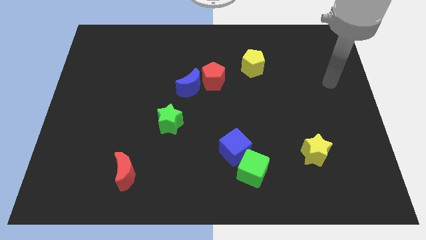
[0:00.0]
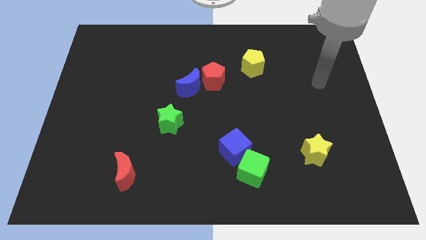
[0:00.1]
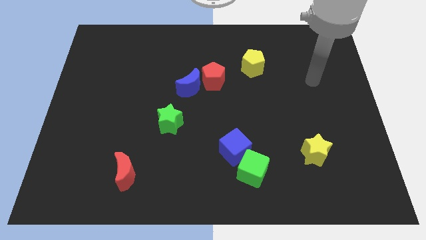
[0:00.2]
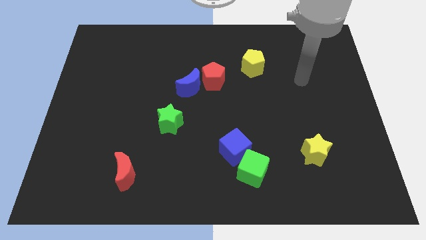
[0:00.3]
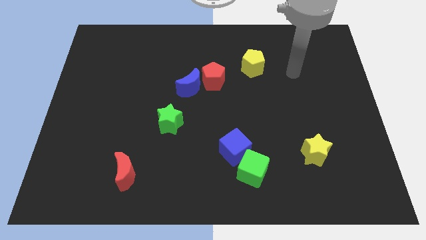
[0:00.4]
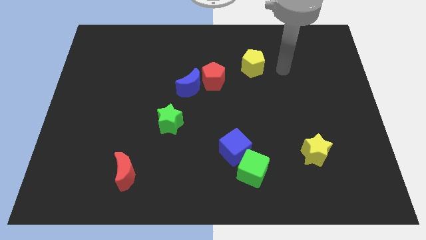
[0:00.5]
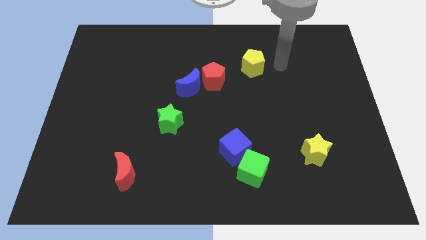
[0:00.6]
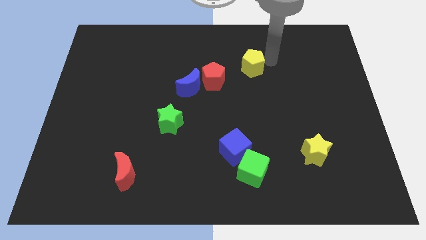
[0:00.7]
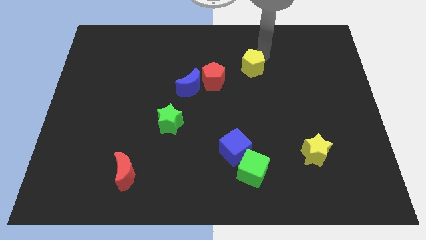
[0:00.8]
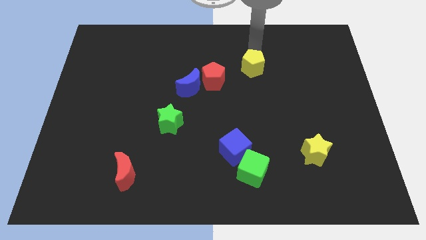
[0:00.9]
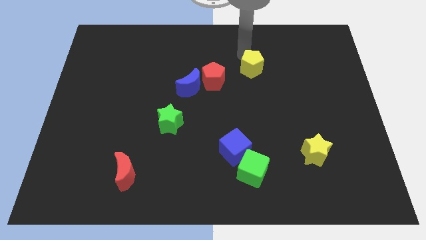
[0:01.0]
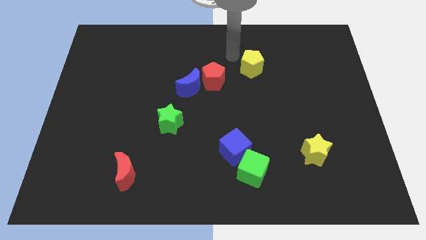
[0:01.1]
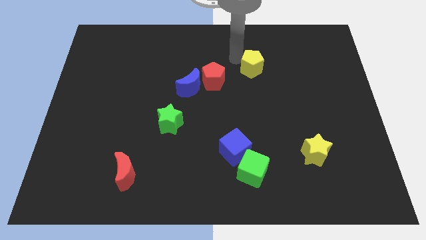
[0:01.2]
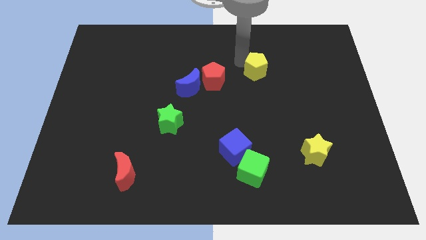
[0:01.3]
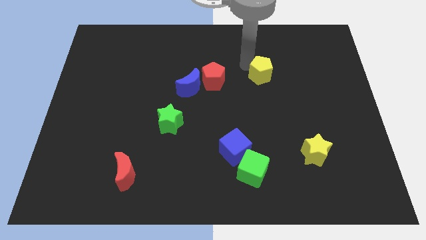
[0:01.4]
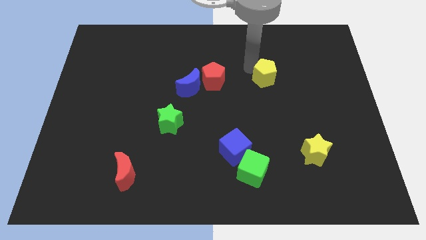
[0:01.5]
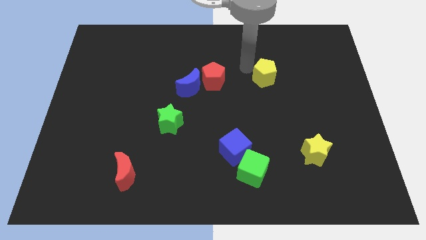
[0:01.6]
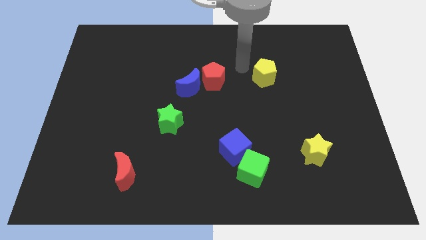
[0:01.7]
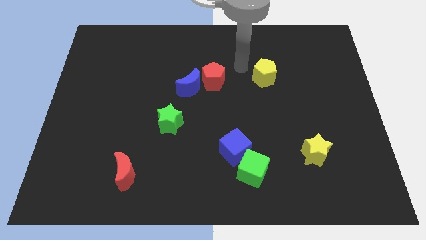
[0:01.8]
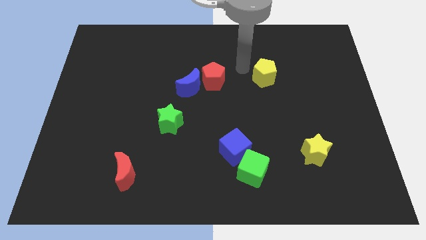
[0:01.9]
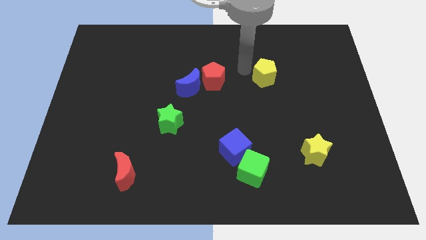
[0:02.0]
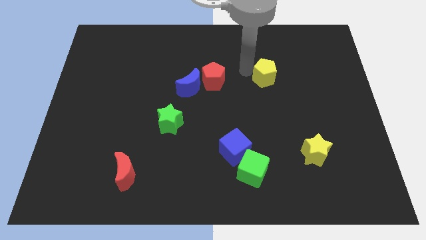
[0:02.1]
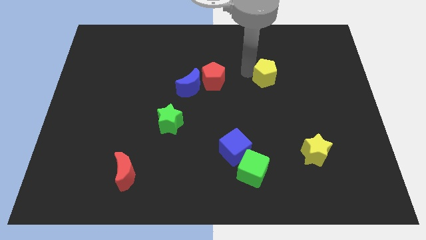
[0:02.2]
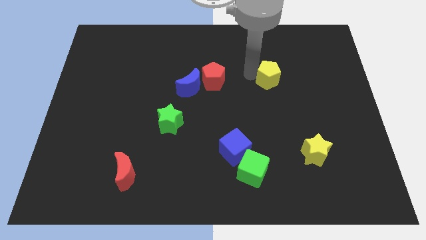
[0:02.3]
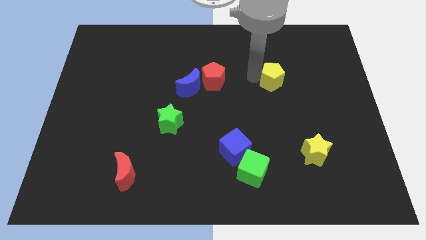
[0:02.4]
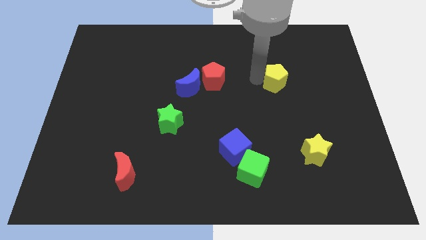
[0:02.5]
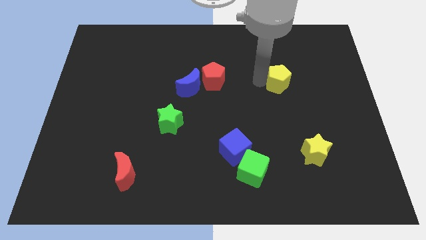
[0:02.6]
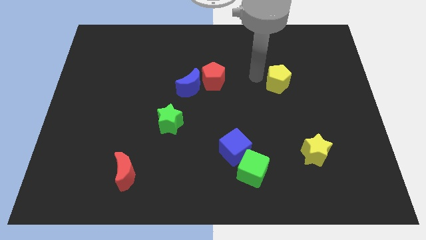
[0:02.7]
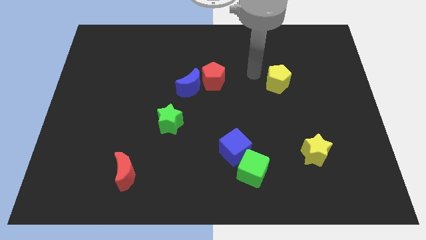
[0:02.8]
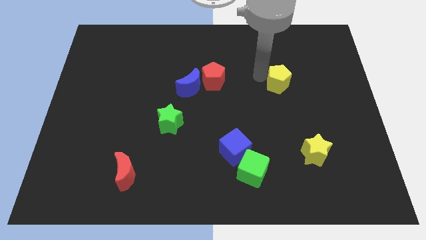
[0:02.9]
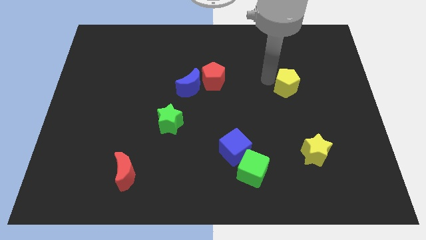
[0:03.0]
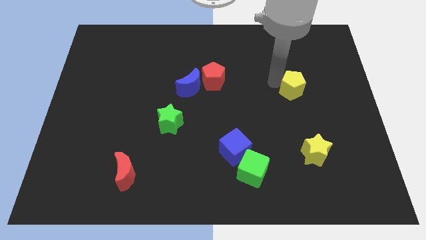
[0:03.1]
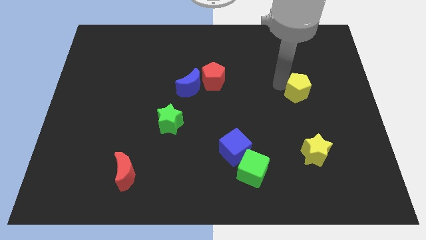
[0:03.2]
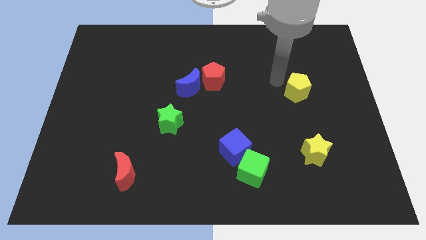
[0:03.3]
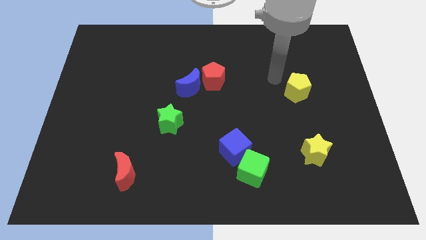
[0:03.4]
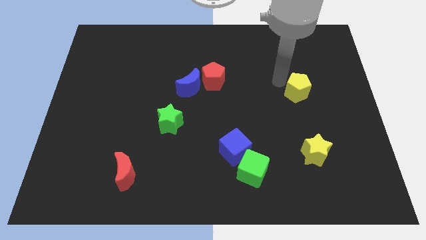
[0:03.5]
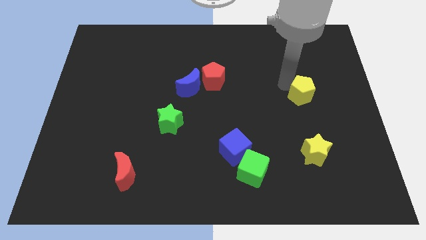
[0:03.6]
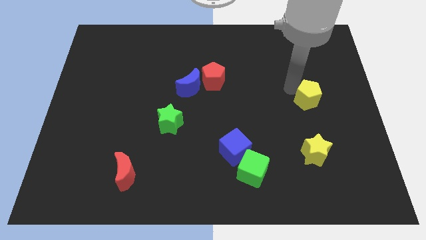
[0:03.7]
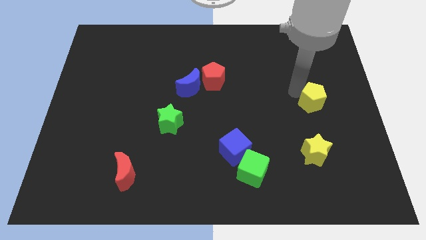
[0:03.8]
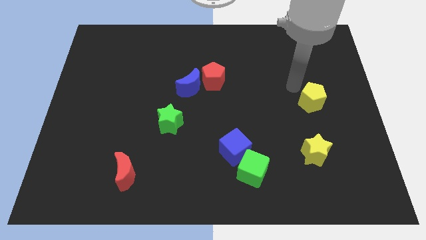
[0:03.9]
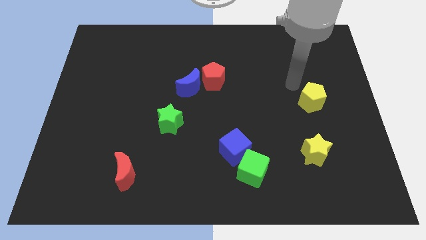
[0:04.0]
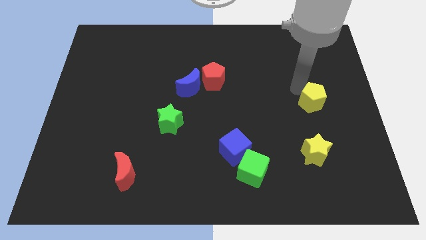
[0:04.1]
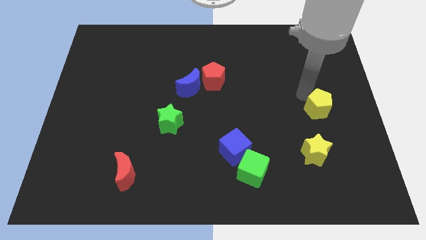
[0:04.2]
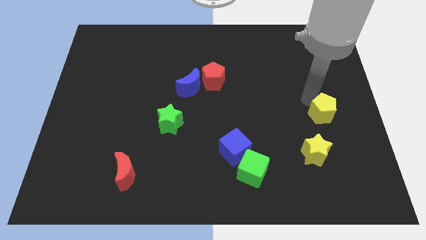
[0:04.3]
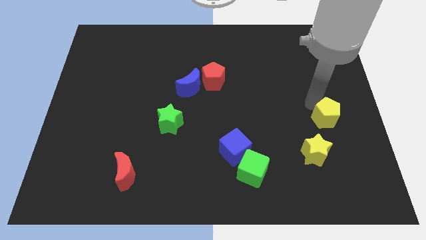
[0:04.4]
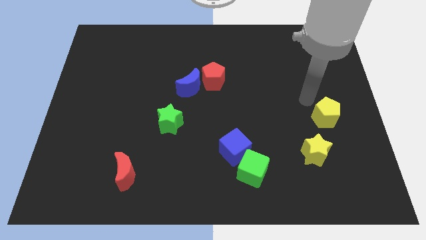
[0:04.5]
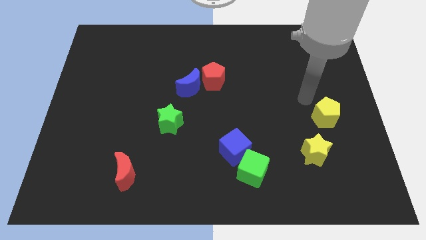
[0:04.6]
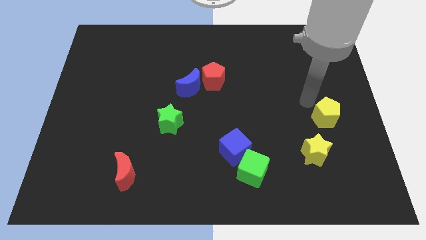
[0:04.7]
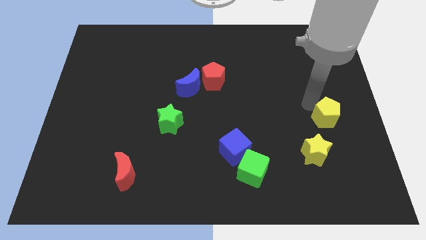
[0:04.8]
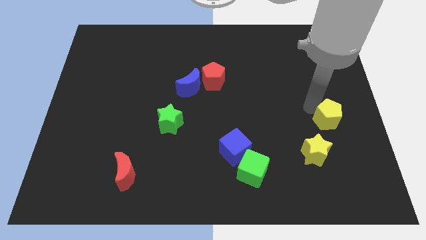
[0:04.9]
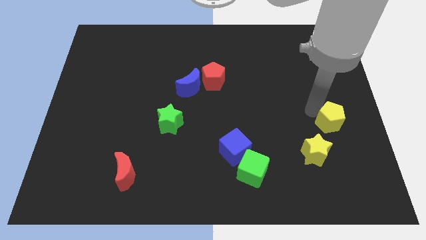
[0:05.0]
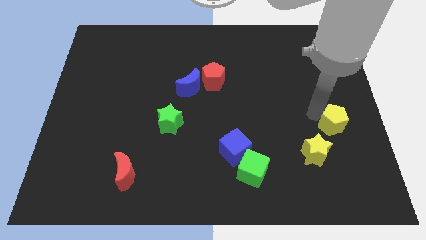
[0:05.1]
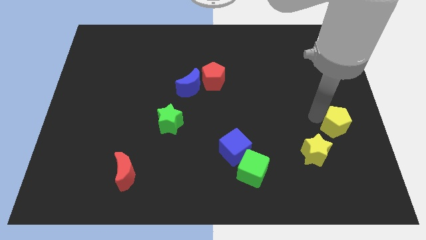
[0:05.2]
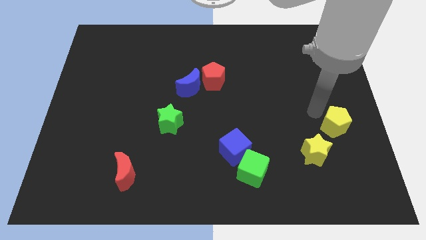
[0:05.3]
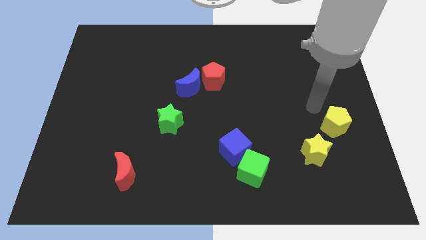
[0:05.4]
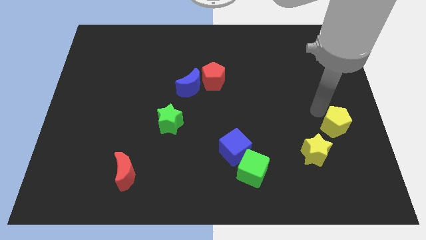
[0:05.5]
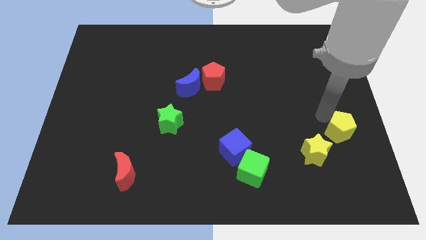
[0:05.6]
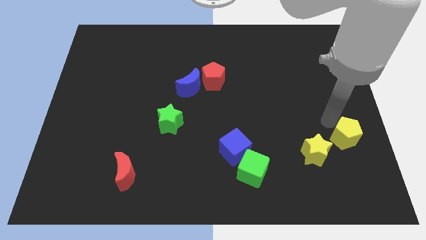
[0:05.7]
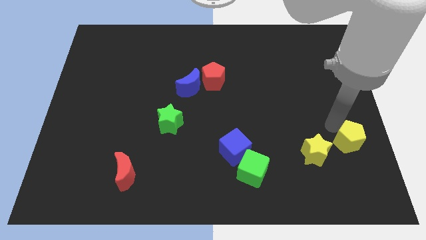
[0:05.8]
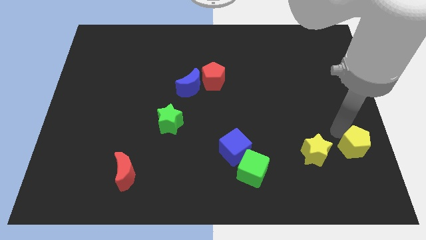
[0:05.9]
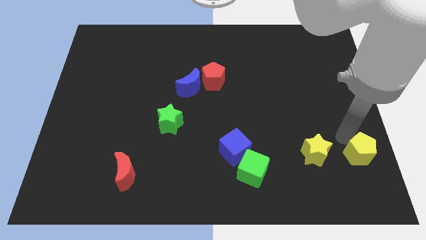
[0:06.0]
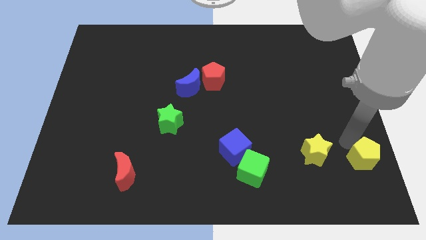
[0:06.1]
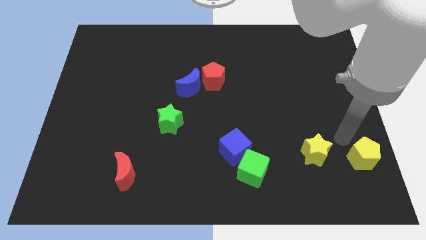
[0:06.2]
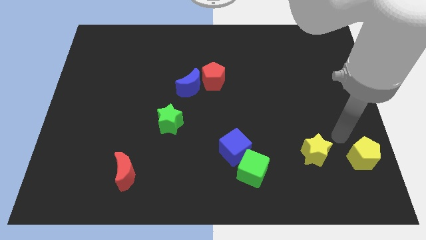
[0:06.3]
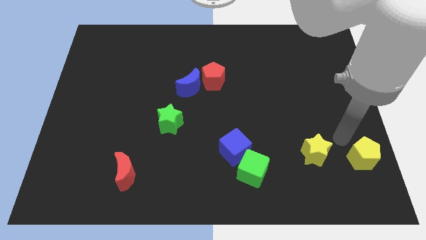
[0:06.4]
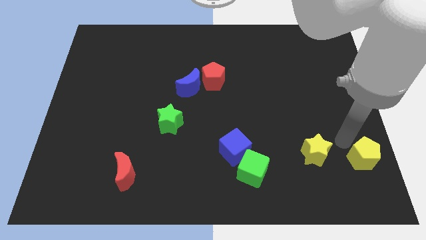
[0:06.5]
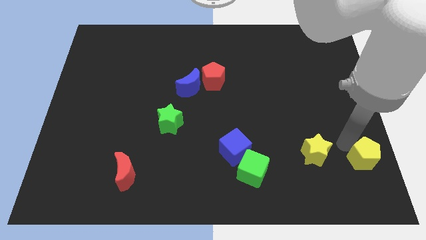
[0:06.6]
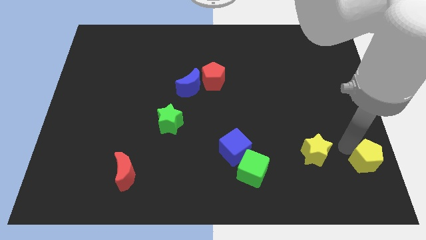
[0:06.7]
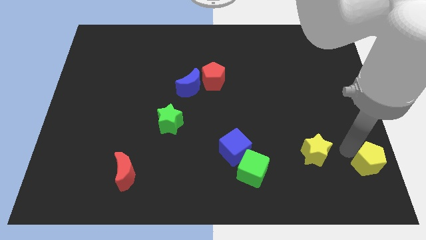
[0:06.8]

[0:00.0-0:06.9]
slide the yellow pentagon to the bottom right
